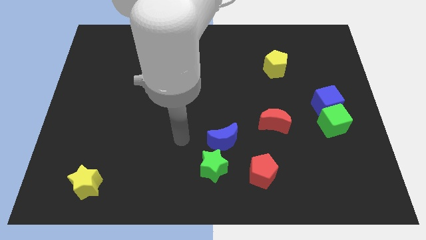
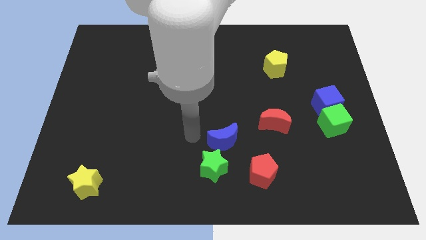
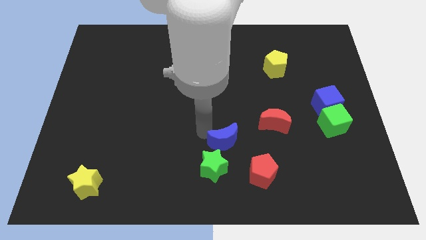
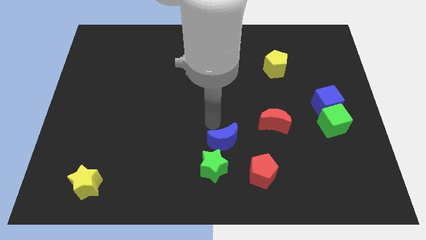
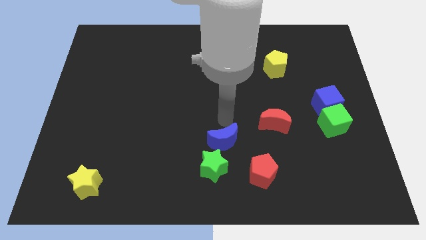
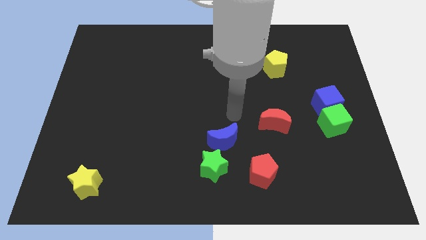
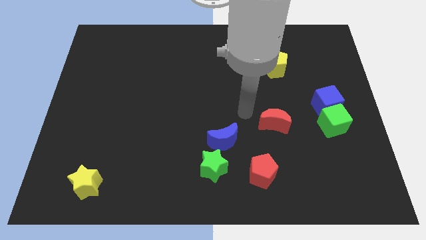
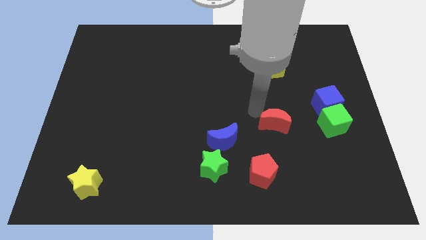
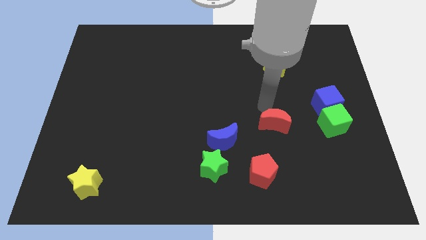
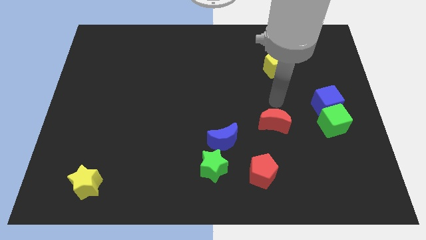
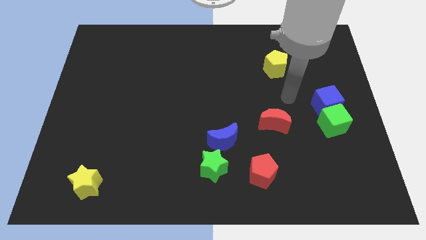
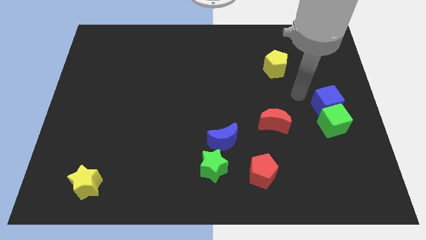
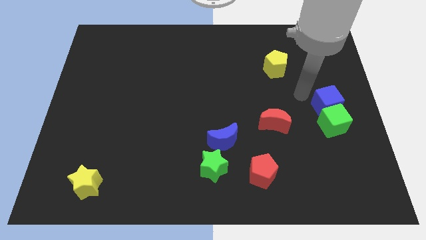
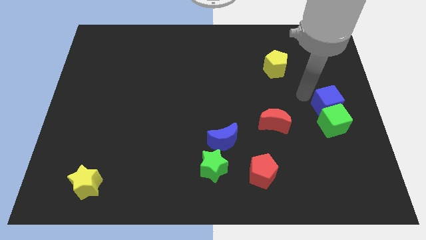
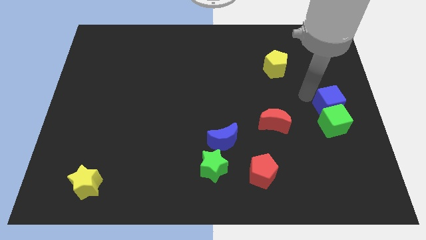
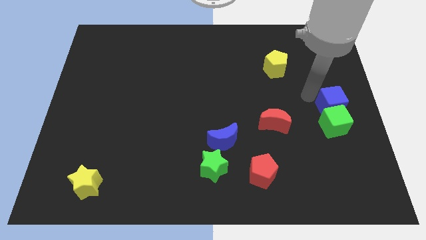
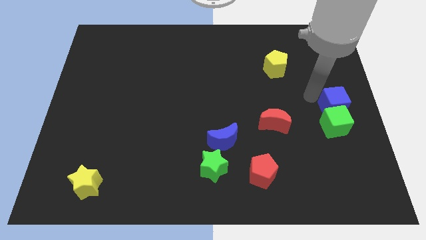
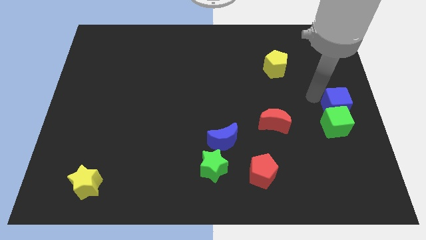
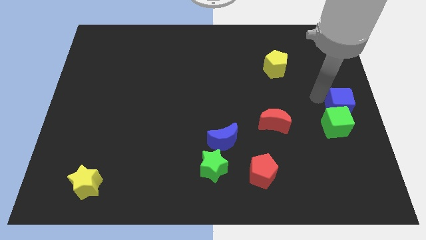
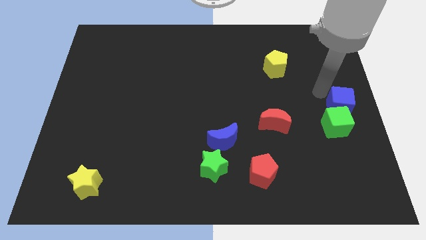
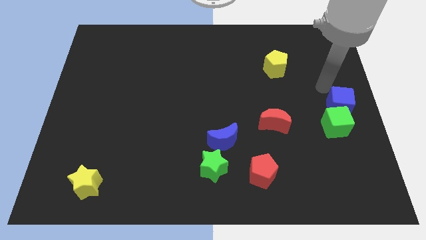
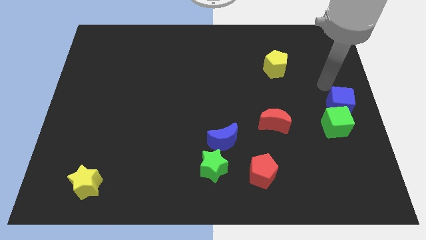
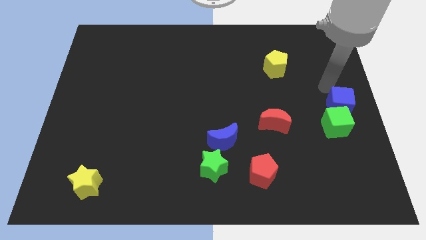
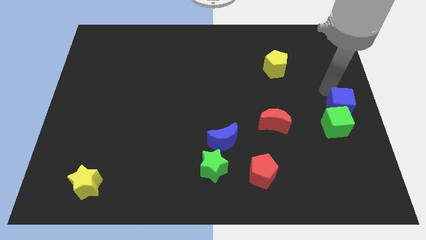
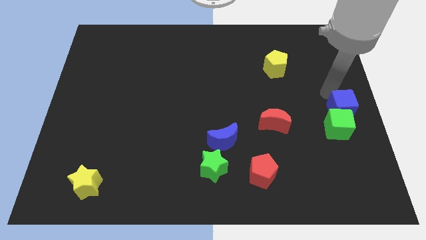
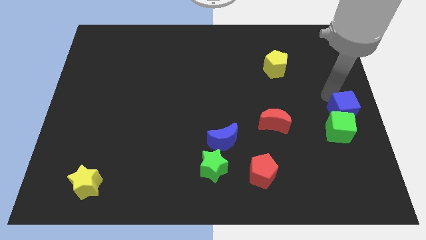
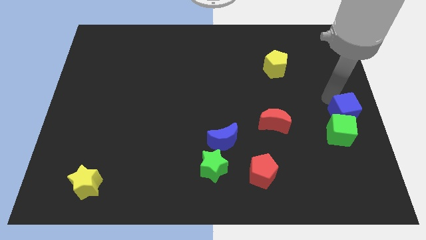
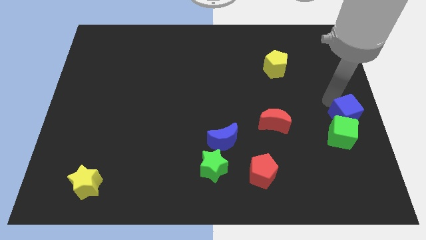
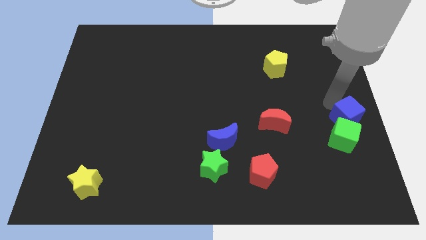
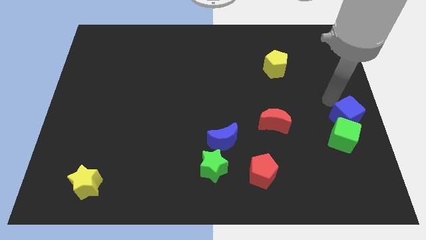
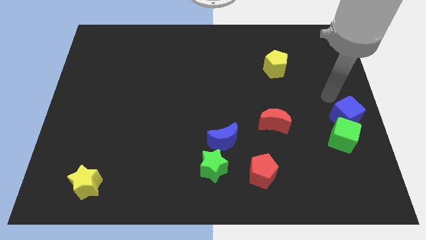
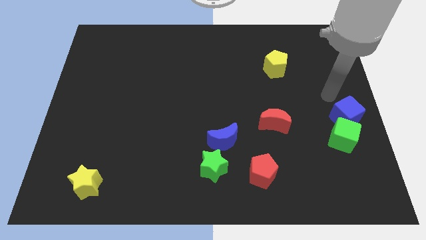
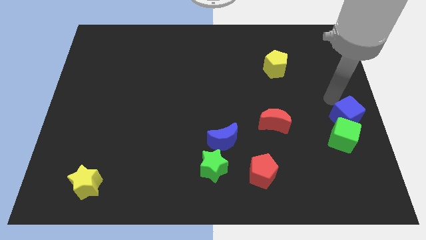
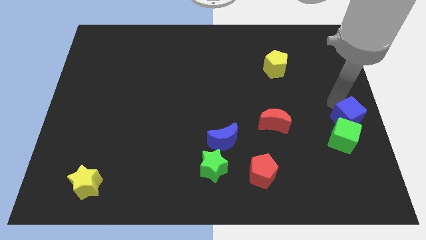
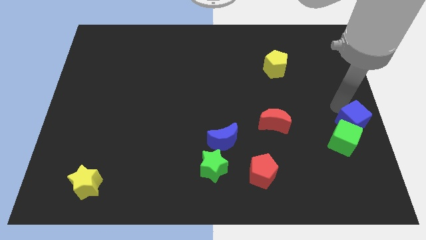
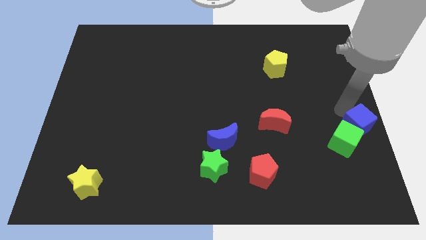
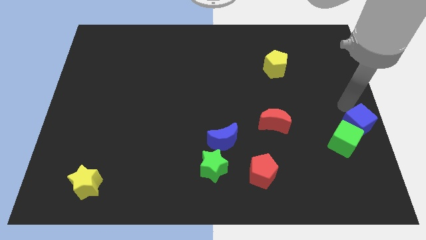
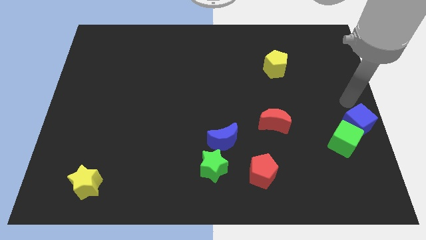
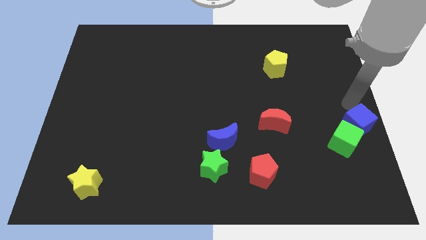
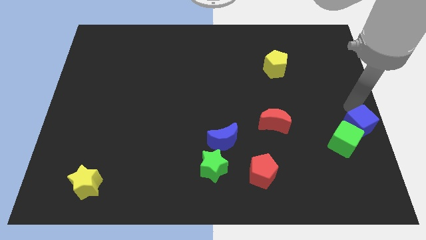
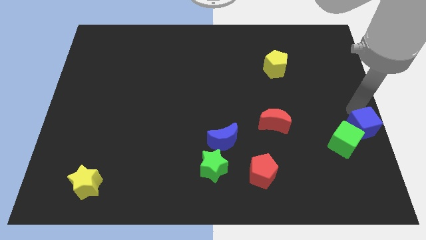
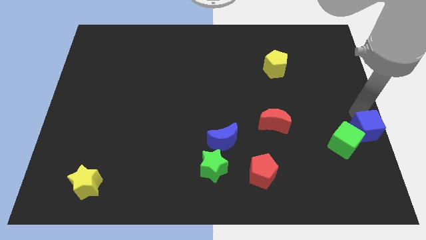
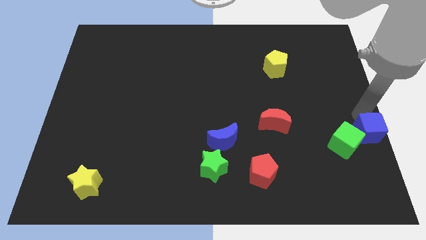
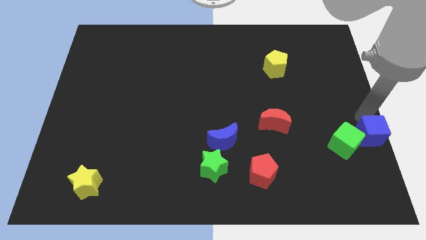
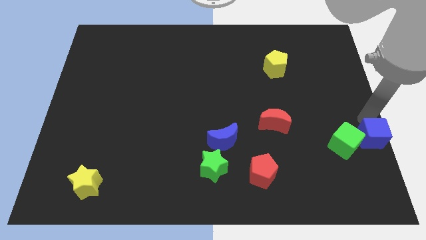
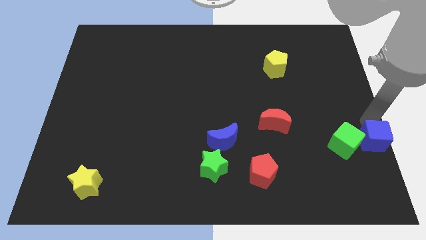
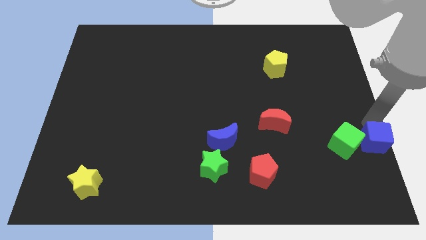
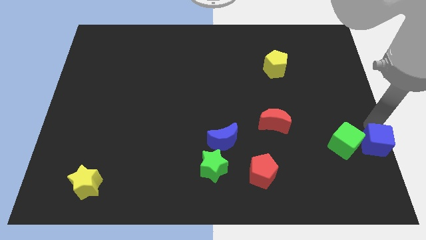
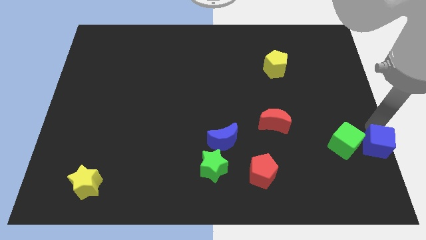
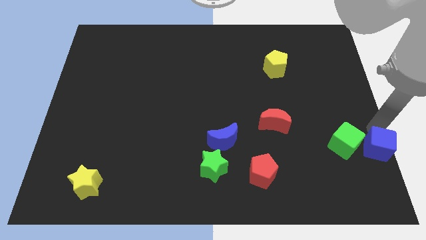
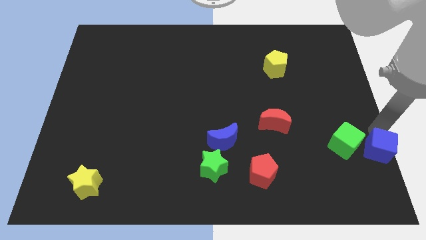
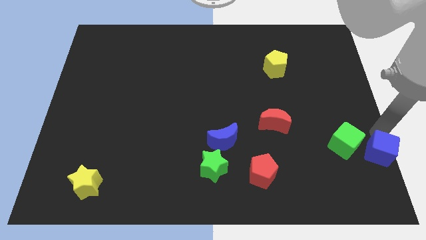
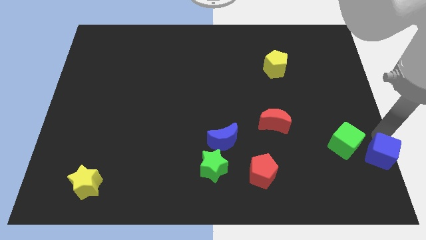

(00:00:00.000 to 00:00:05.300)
push the blue cube to the bottom right of the board

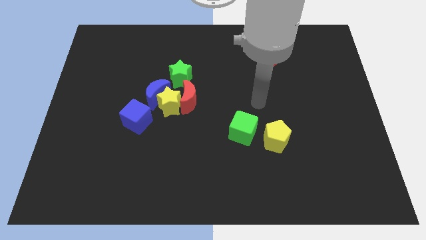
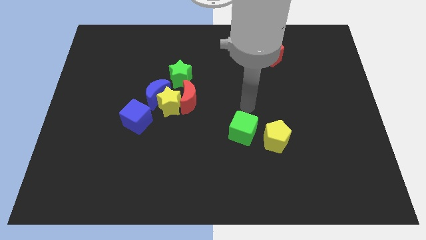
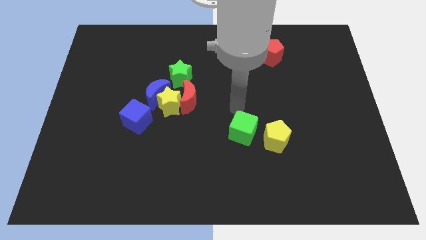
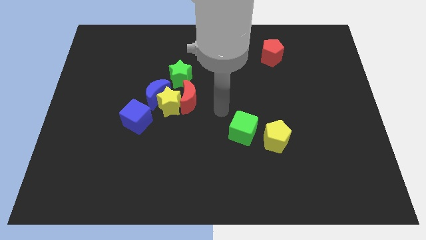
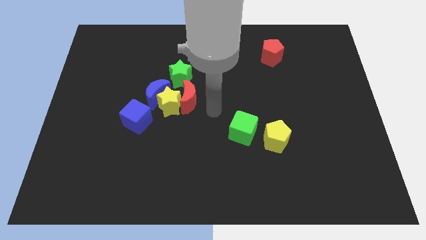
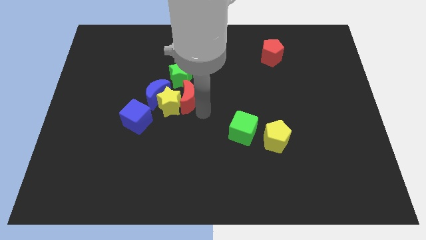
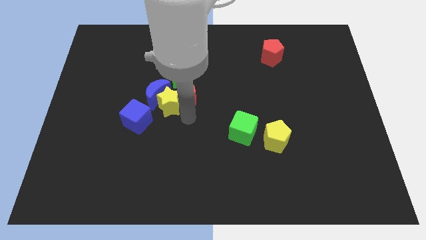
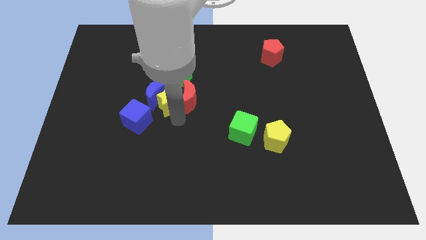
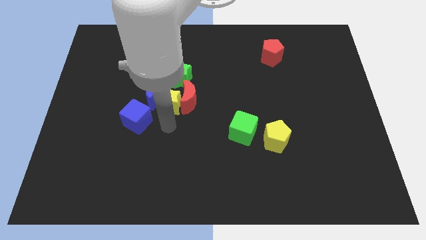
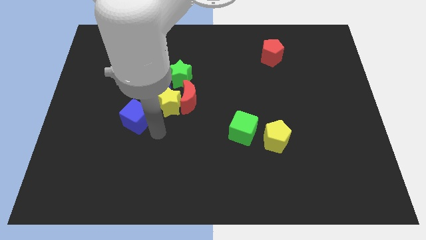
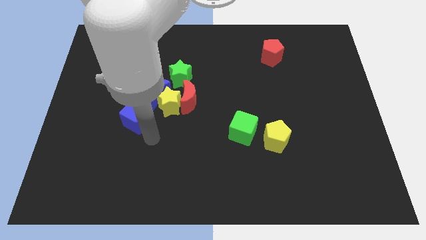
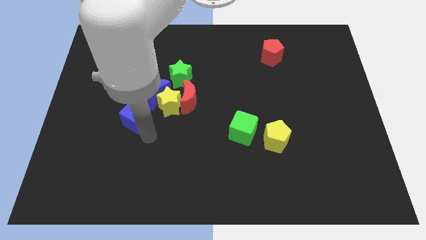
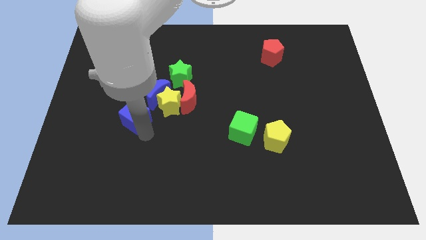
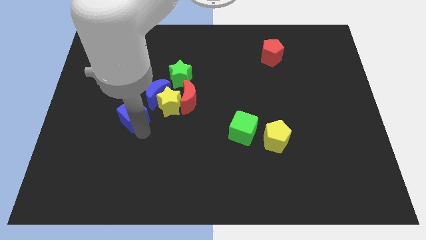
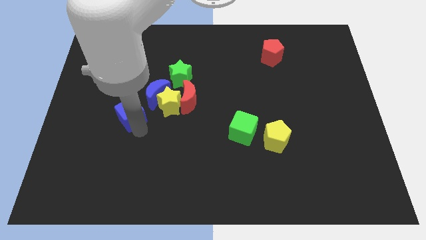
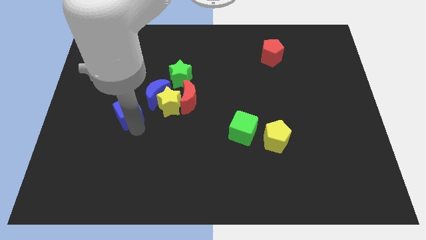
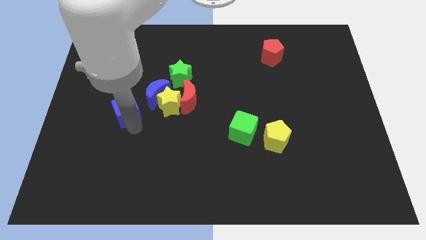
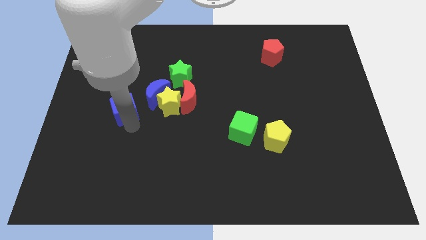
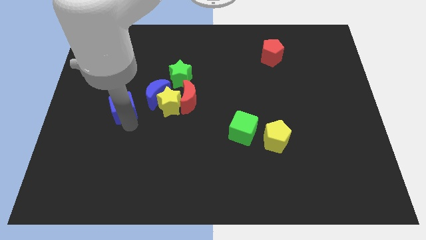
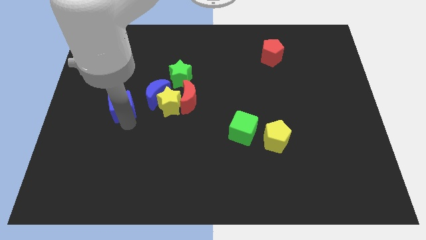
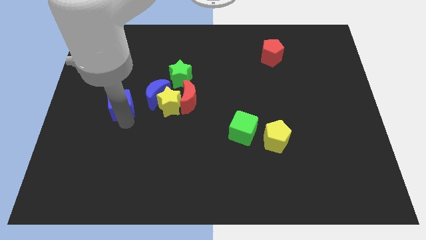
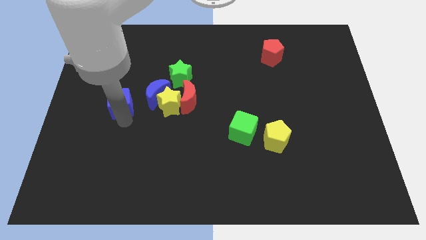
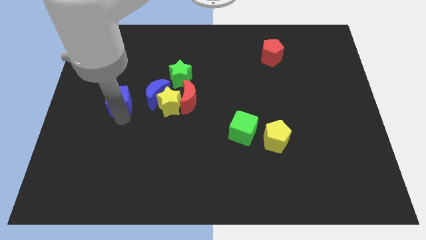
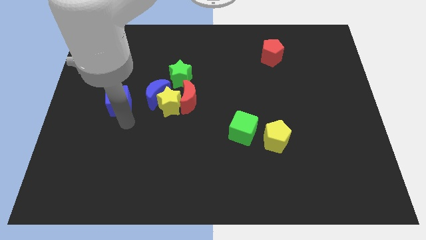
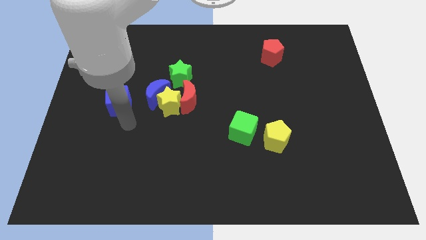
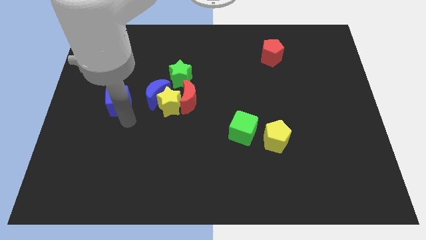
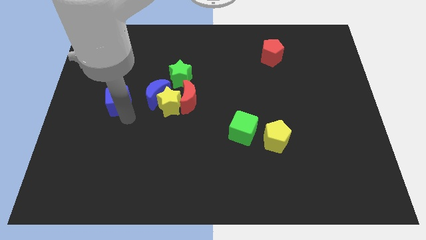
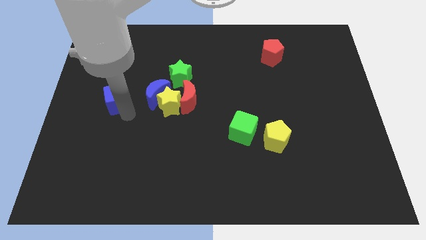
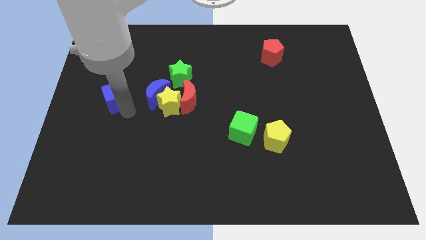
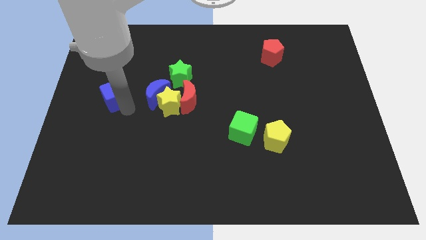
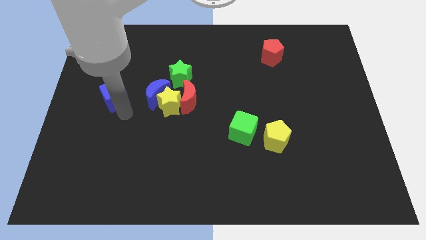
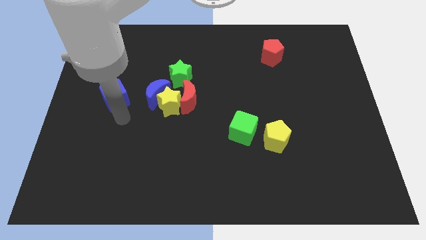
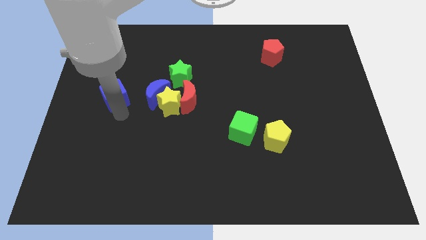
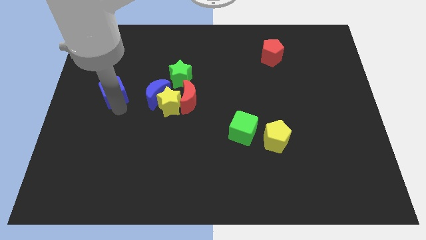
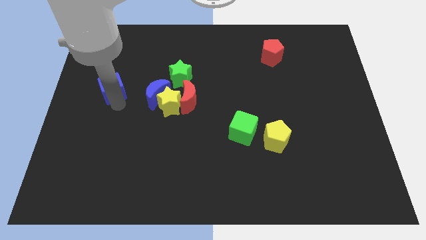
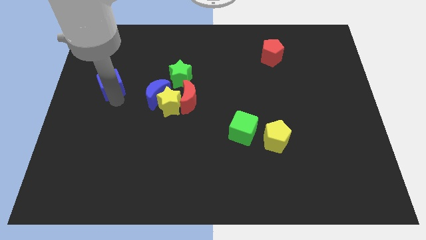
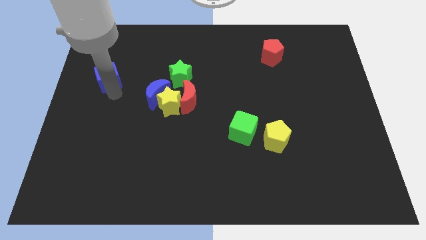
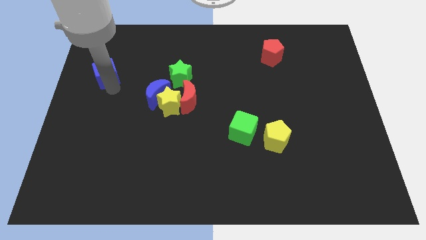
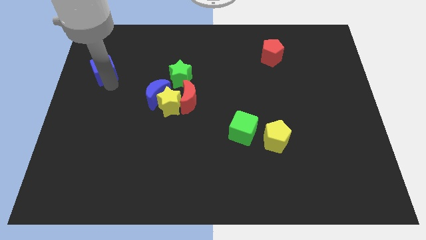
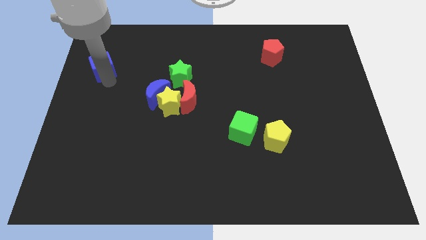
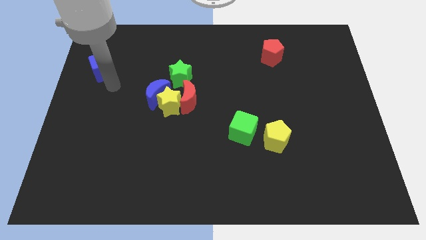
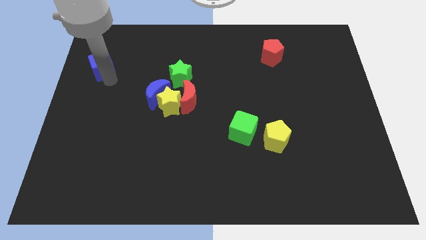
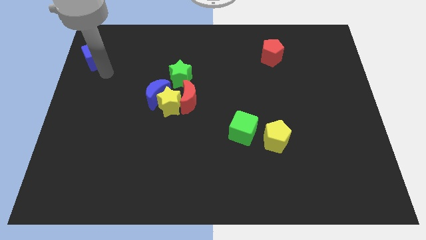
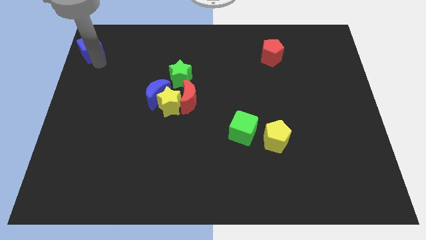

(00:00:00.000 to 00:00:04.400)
put the blue cube to the top left corner
